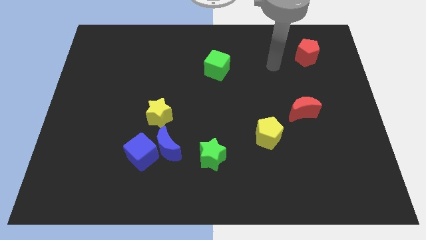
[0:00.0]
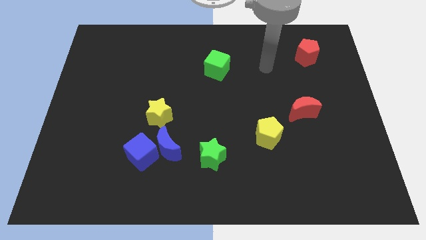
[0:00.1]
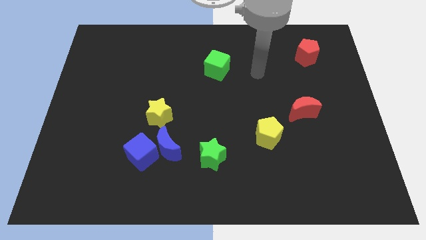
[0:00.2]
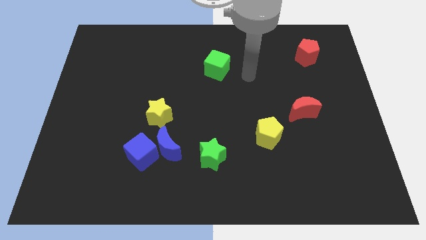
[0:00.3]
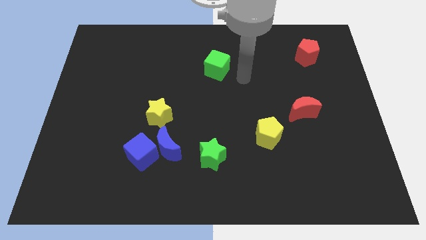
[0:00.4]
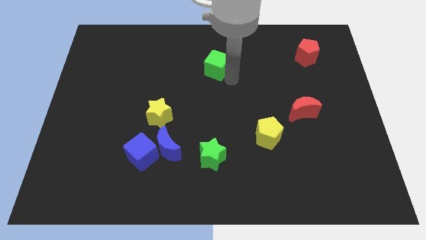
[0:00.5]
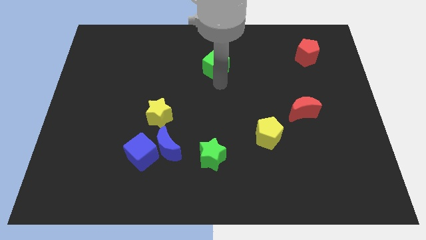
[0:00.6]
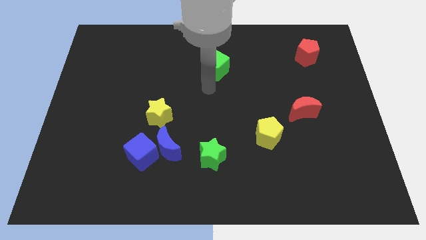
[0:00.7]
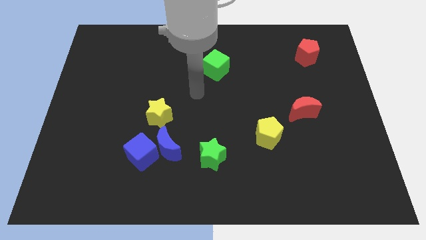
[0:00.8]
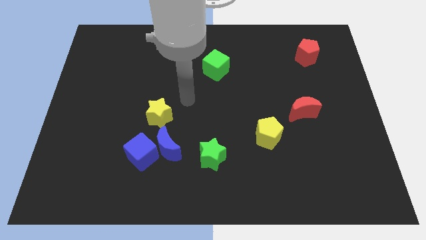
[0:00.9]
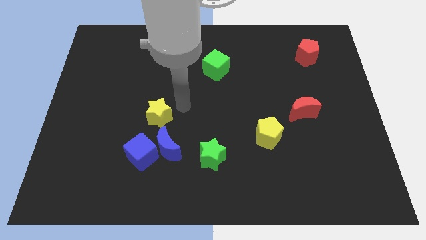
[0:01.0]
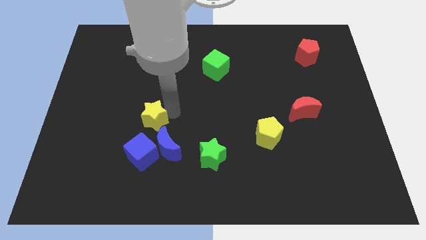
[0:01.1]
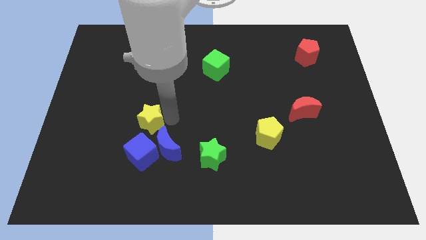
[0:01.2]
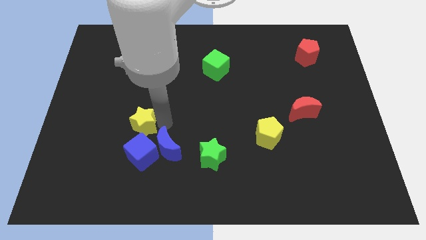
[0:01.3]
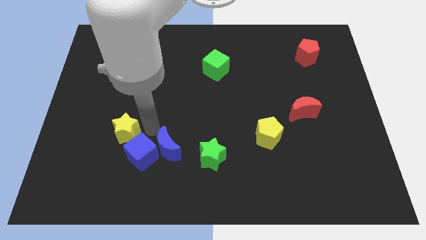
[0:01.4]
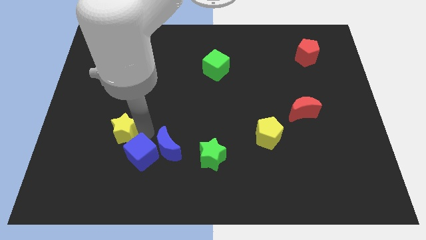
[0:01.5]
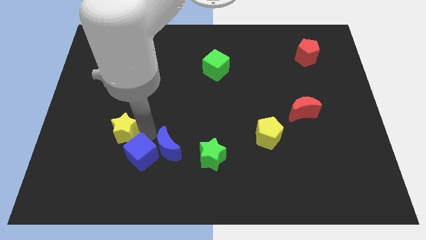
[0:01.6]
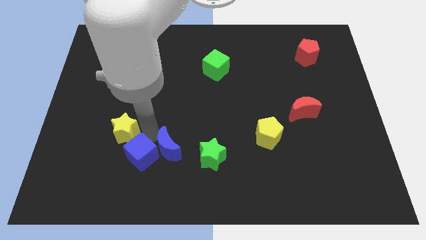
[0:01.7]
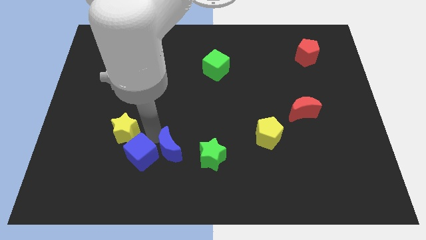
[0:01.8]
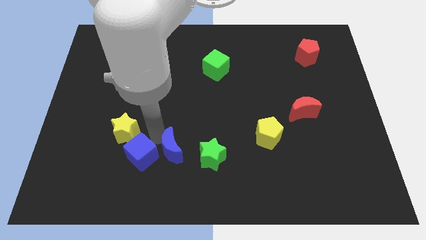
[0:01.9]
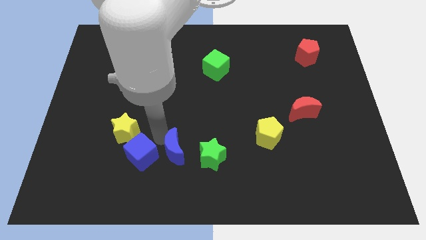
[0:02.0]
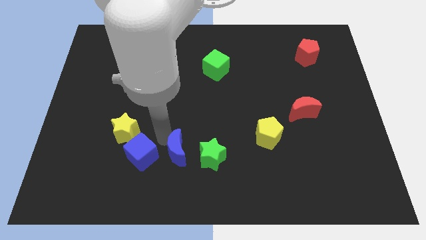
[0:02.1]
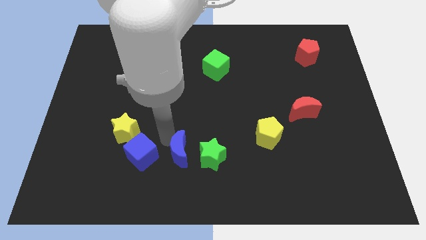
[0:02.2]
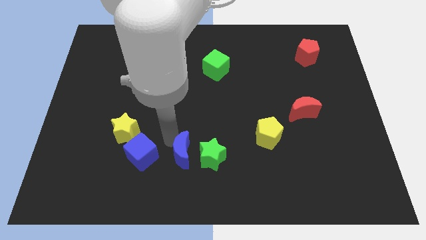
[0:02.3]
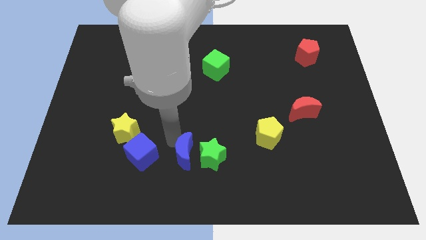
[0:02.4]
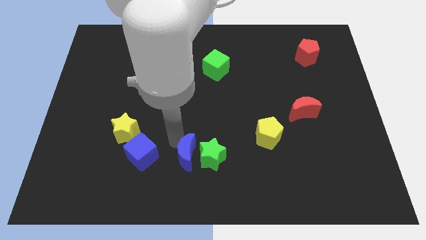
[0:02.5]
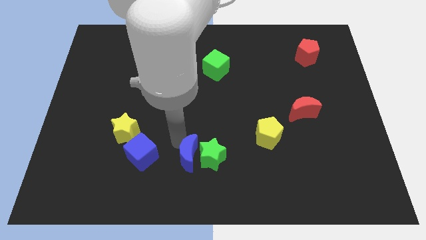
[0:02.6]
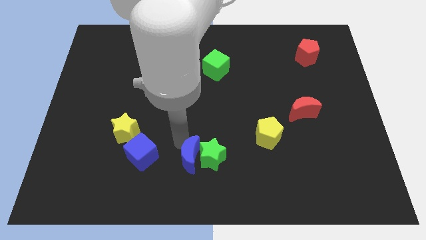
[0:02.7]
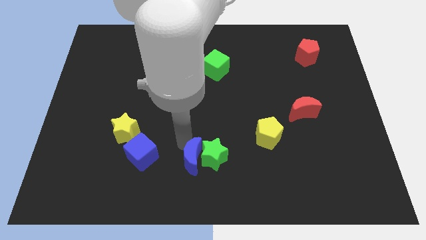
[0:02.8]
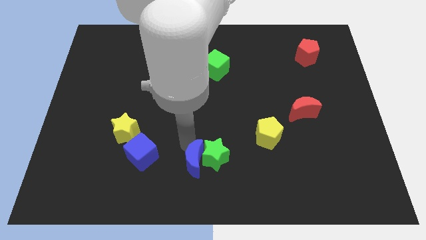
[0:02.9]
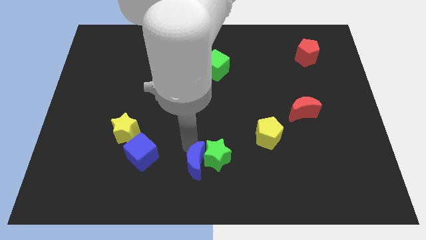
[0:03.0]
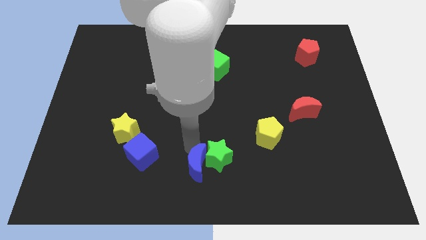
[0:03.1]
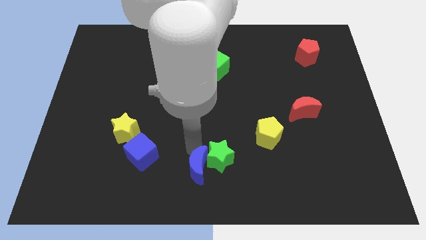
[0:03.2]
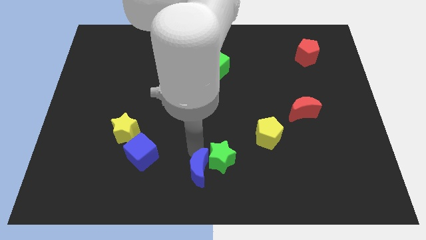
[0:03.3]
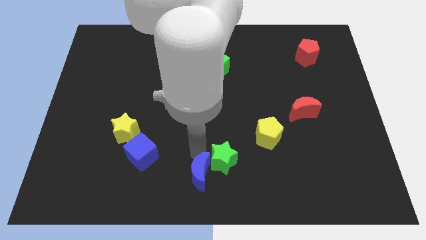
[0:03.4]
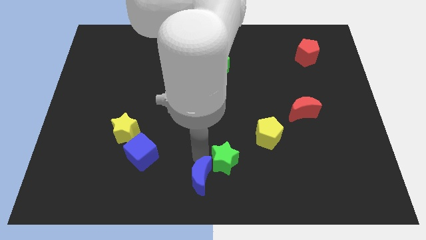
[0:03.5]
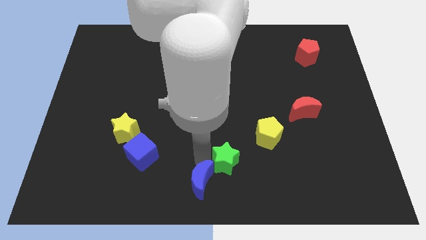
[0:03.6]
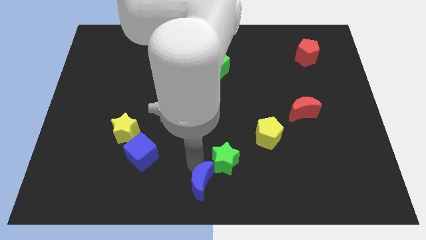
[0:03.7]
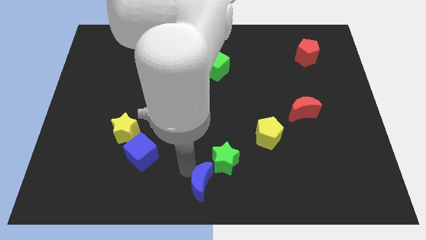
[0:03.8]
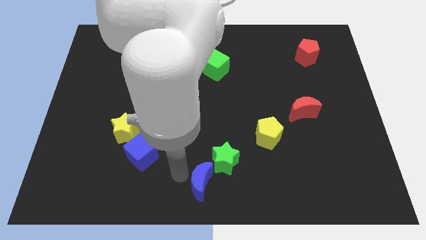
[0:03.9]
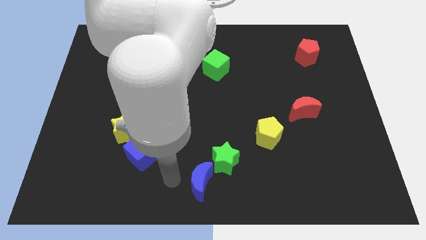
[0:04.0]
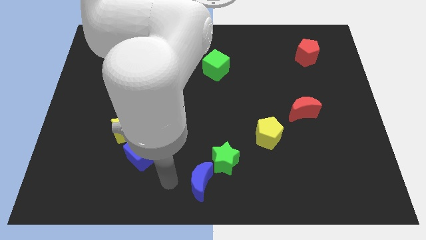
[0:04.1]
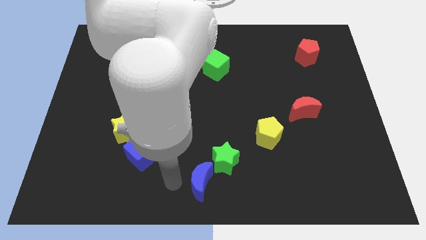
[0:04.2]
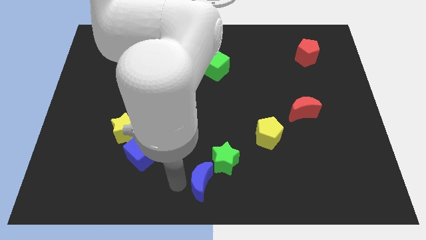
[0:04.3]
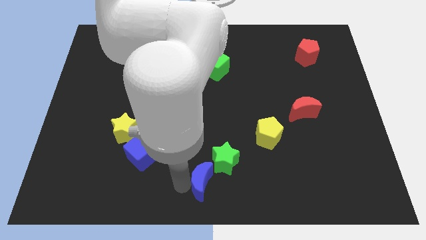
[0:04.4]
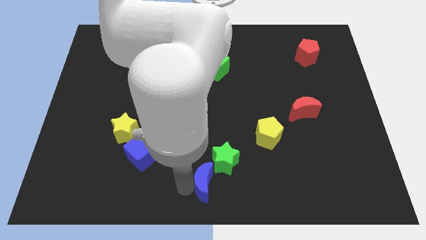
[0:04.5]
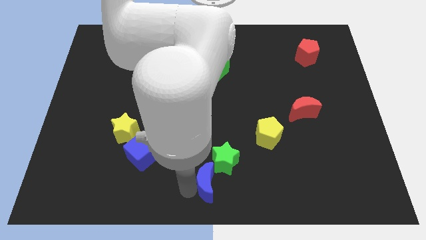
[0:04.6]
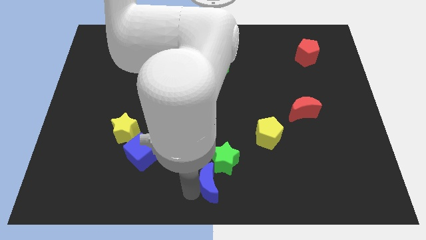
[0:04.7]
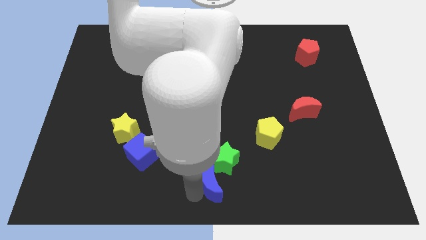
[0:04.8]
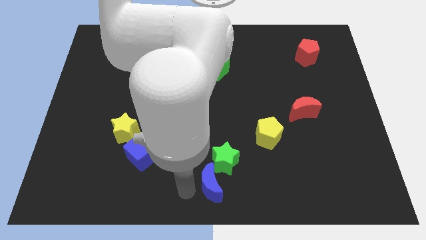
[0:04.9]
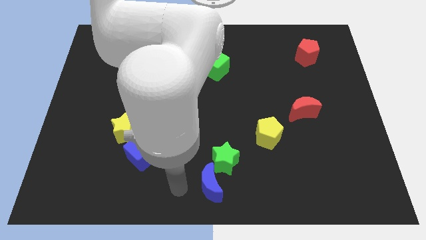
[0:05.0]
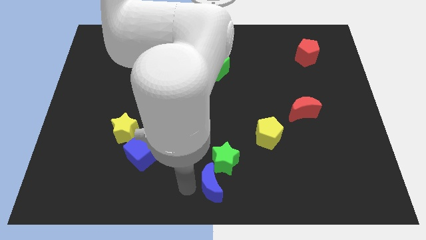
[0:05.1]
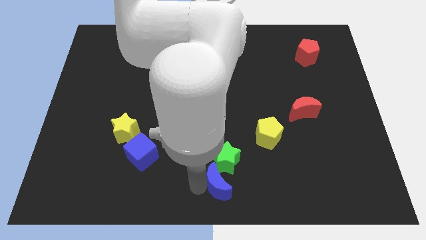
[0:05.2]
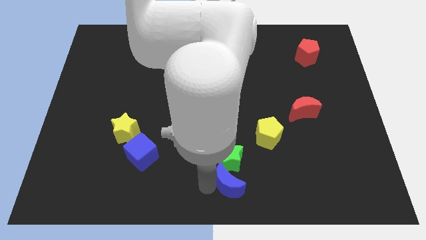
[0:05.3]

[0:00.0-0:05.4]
push the blue moon to the bottom right of the green star

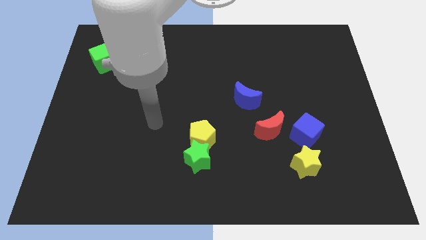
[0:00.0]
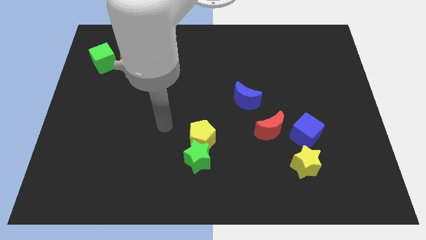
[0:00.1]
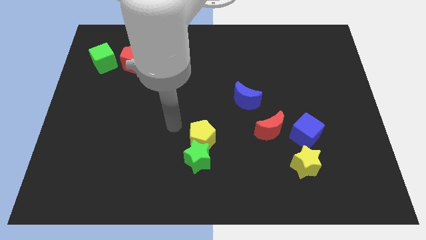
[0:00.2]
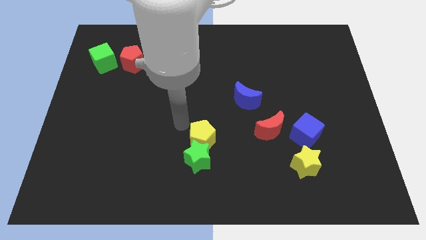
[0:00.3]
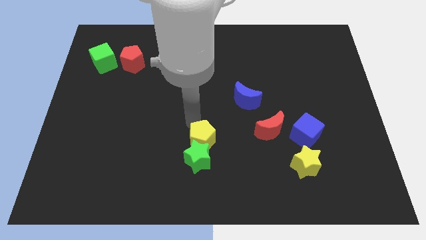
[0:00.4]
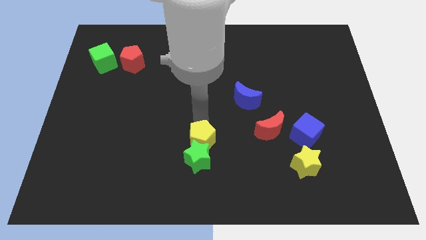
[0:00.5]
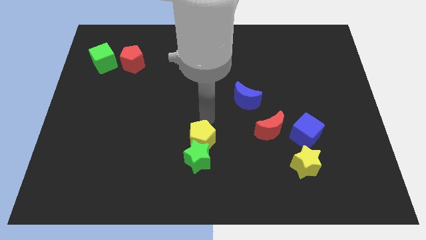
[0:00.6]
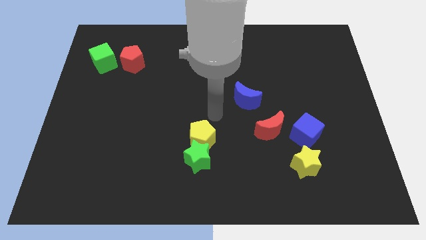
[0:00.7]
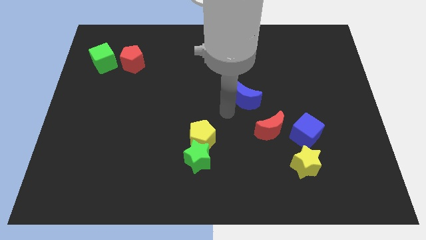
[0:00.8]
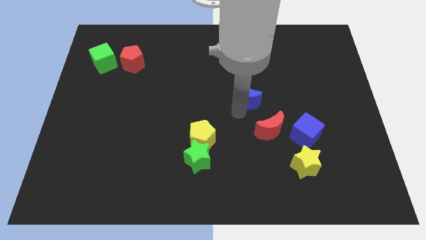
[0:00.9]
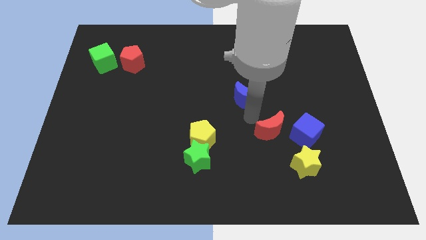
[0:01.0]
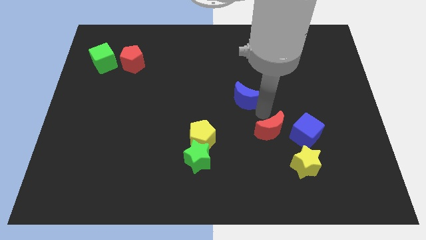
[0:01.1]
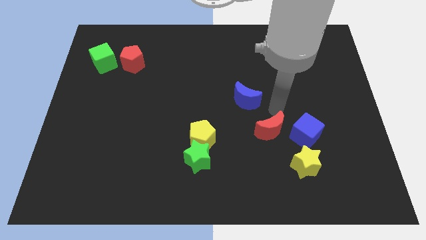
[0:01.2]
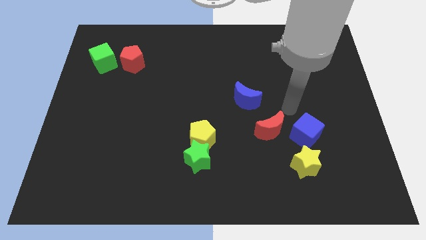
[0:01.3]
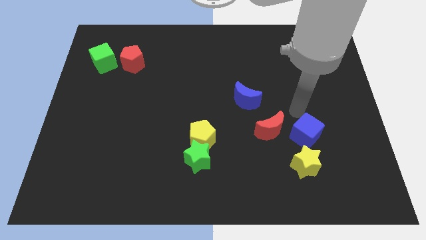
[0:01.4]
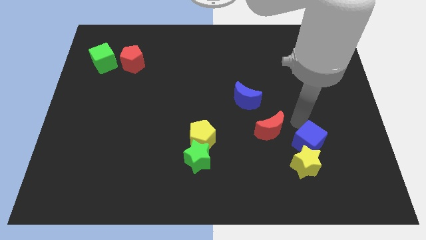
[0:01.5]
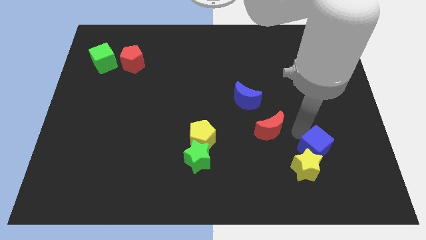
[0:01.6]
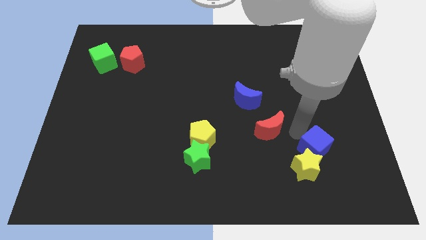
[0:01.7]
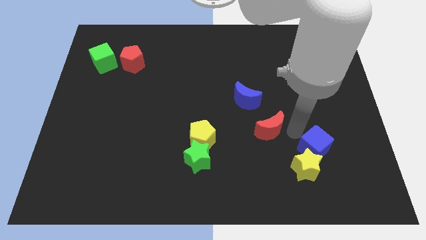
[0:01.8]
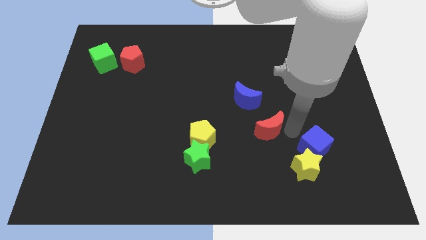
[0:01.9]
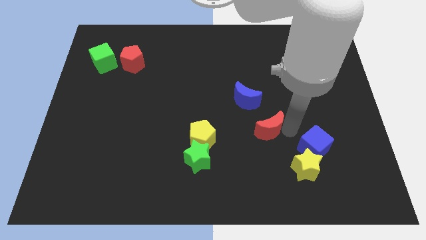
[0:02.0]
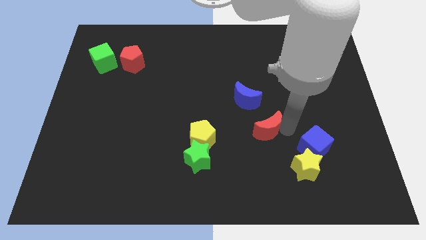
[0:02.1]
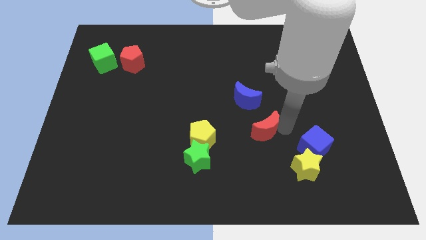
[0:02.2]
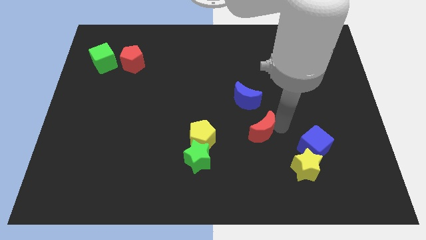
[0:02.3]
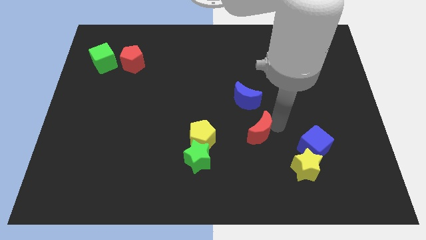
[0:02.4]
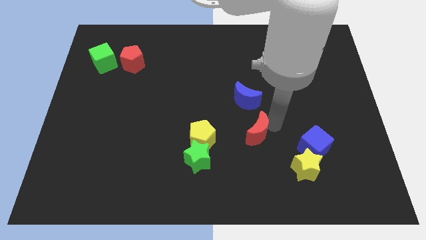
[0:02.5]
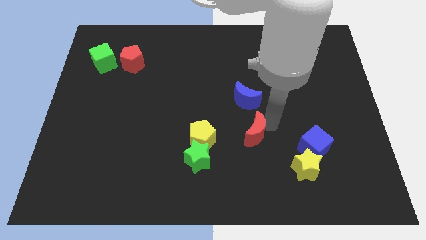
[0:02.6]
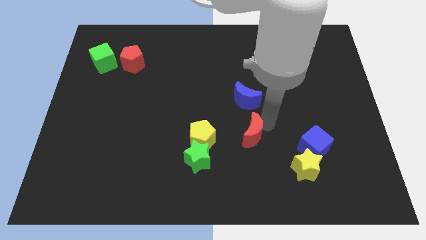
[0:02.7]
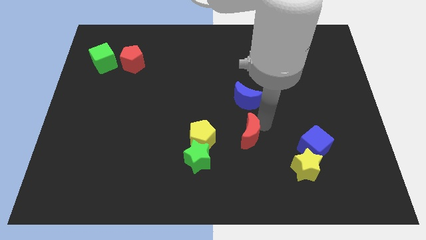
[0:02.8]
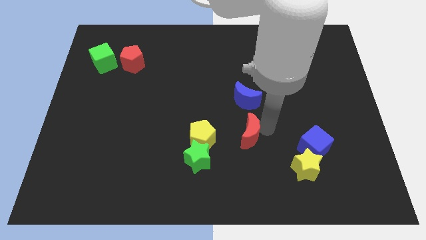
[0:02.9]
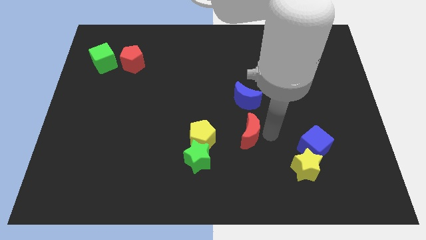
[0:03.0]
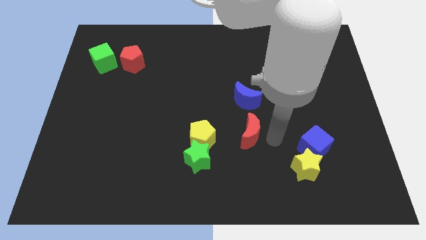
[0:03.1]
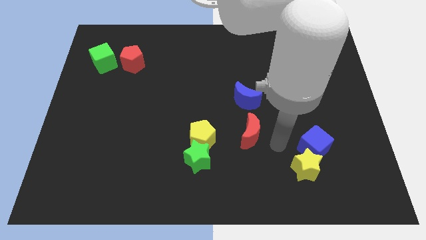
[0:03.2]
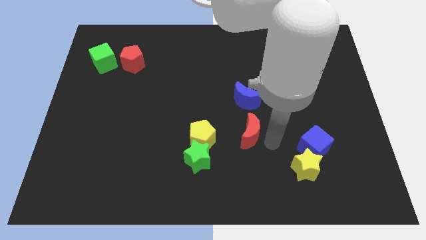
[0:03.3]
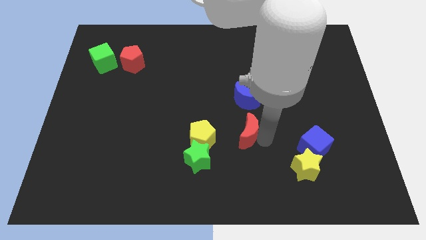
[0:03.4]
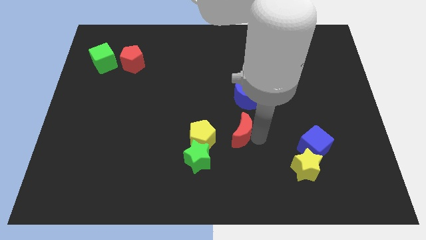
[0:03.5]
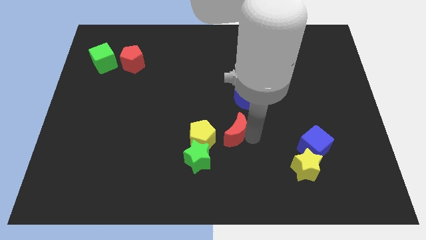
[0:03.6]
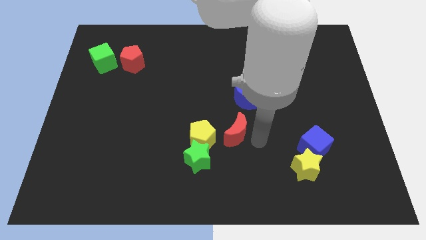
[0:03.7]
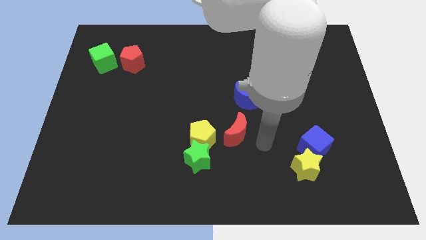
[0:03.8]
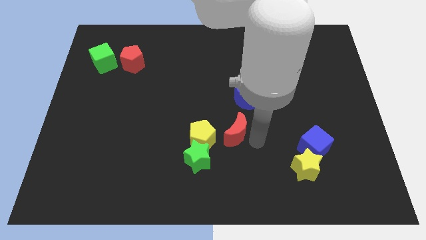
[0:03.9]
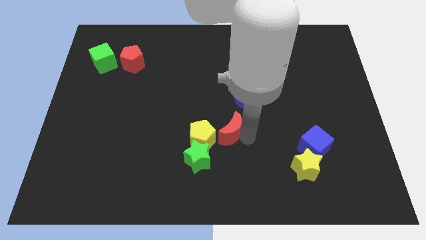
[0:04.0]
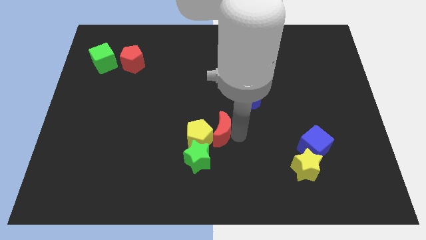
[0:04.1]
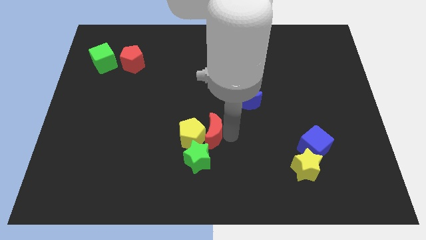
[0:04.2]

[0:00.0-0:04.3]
push the red moon to the top side of the green star
